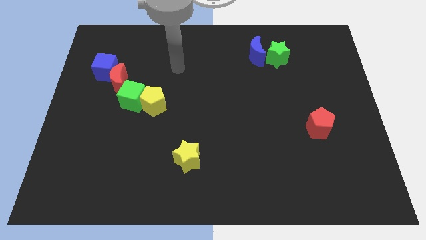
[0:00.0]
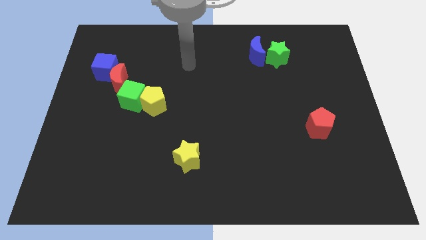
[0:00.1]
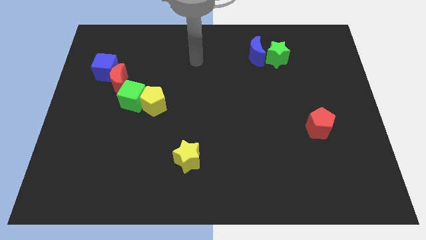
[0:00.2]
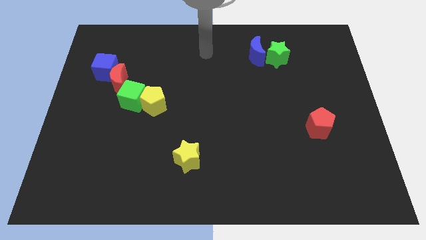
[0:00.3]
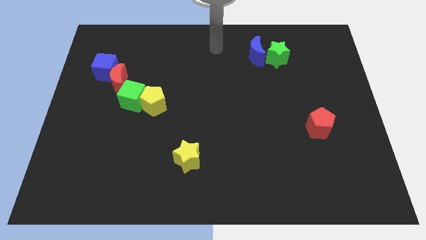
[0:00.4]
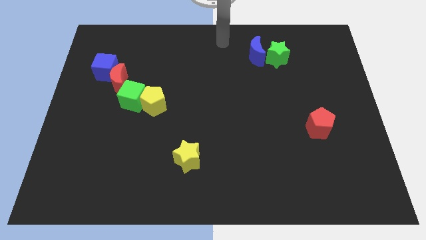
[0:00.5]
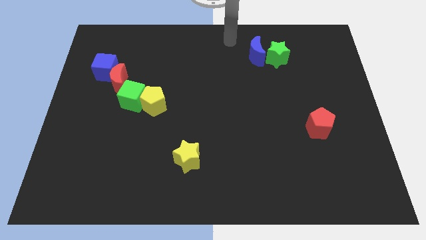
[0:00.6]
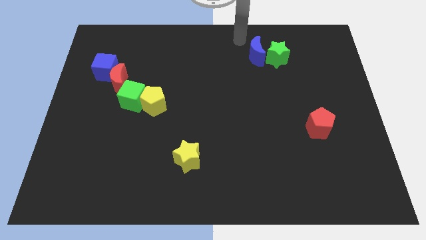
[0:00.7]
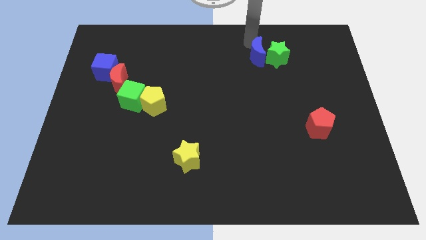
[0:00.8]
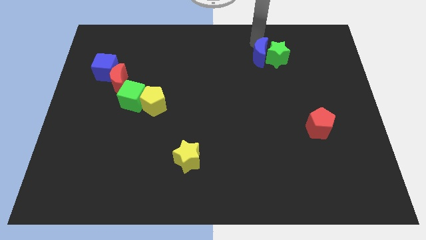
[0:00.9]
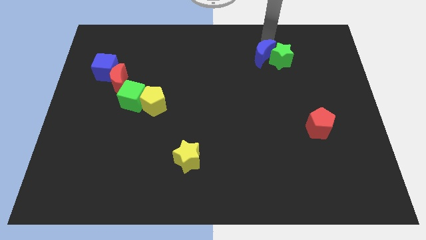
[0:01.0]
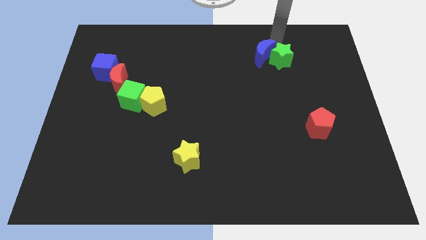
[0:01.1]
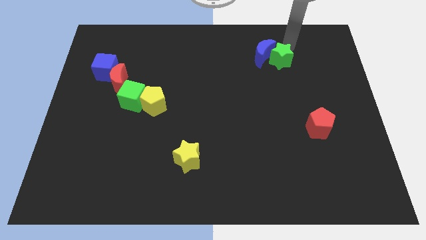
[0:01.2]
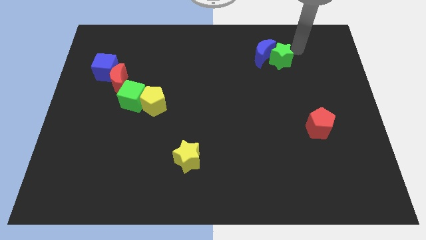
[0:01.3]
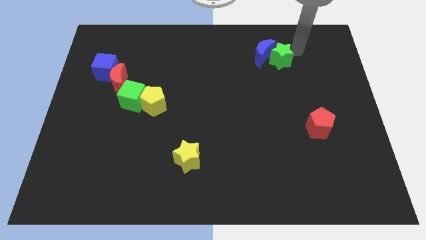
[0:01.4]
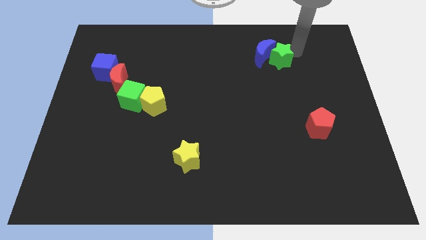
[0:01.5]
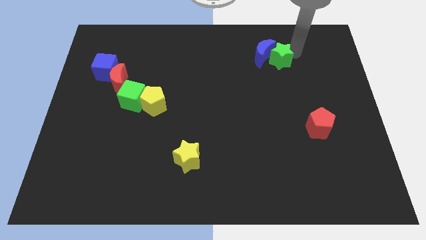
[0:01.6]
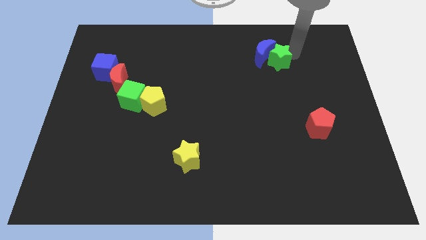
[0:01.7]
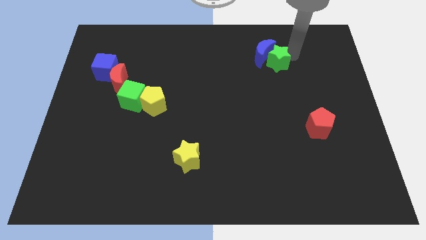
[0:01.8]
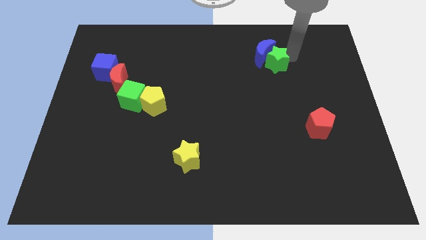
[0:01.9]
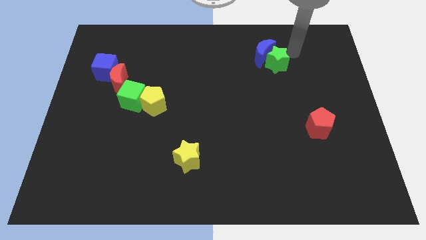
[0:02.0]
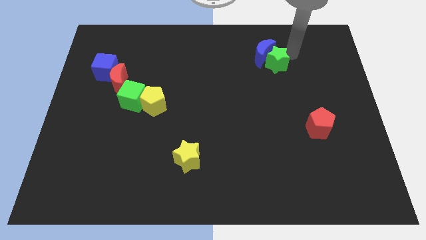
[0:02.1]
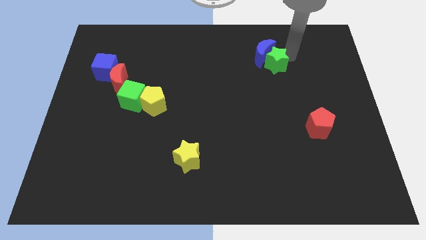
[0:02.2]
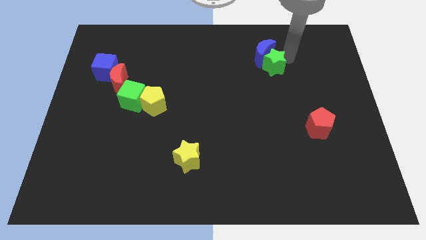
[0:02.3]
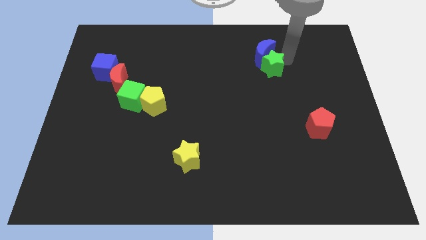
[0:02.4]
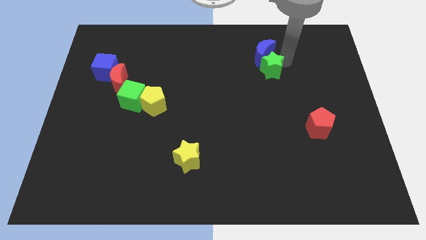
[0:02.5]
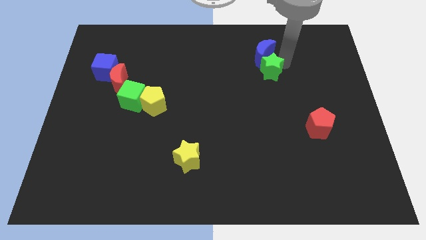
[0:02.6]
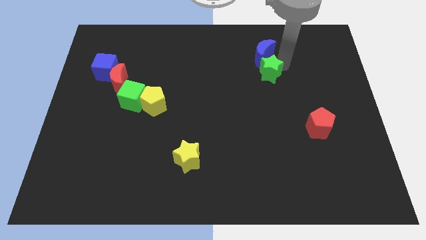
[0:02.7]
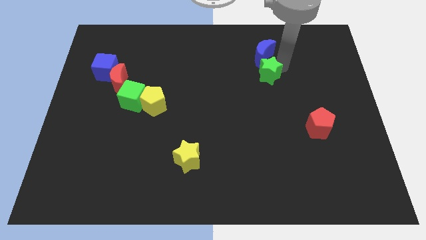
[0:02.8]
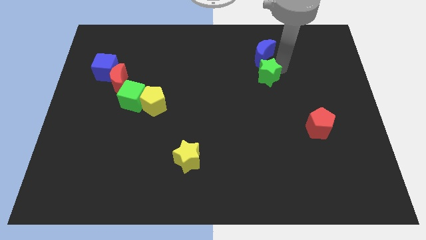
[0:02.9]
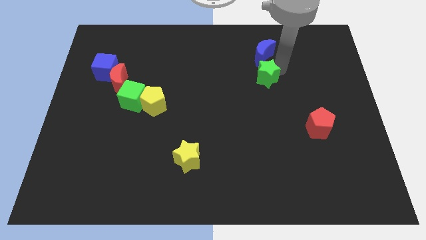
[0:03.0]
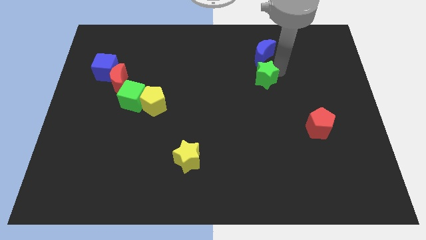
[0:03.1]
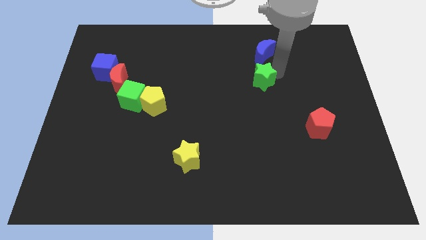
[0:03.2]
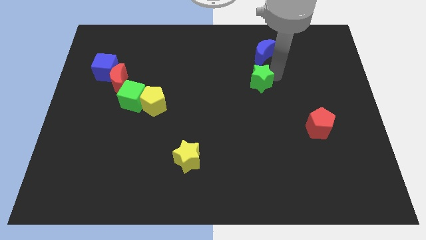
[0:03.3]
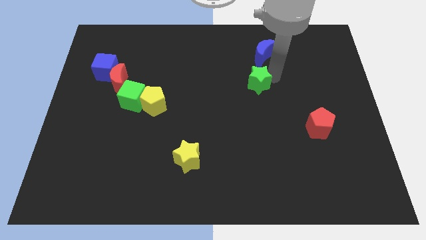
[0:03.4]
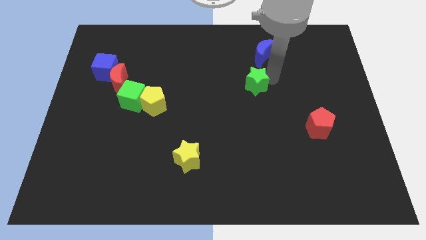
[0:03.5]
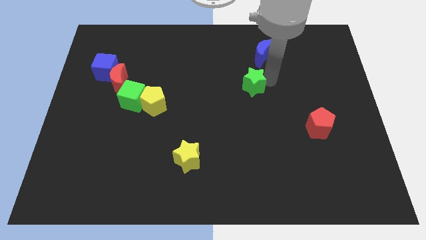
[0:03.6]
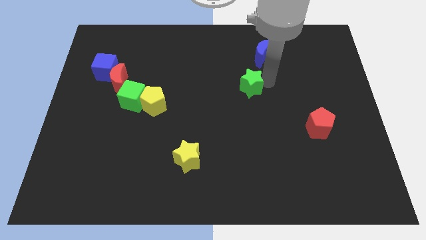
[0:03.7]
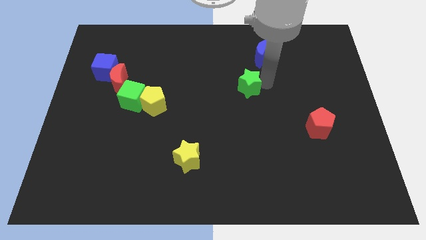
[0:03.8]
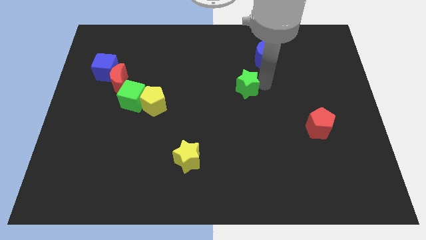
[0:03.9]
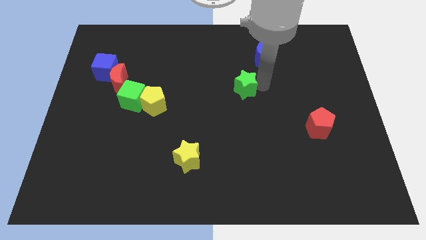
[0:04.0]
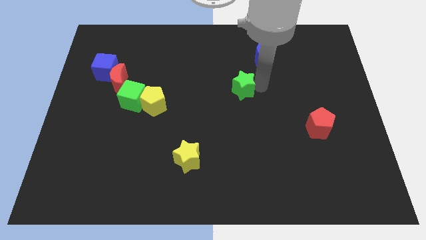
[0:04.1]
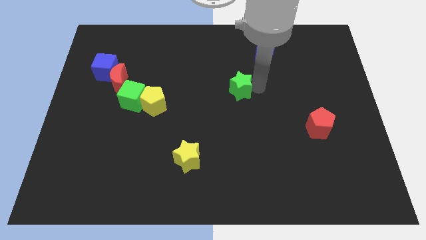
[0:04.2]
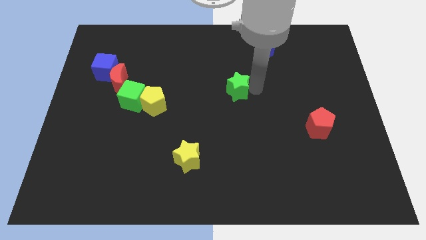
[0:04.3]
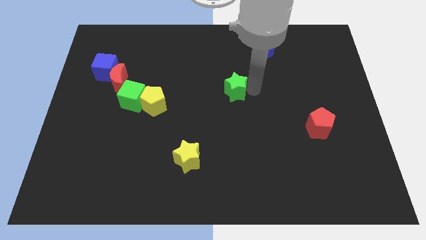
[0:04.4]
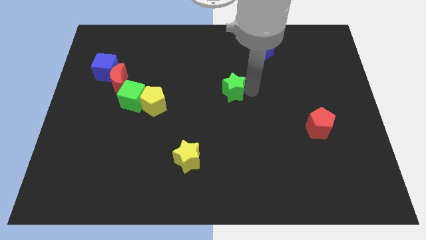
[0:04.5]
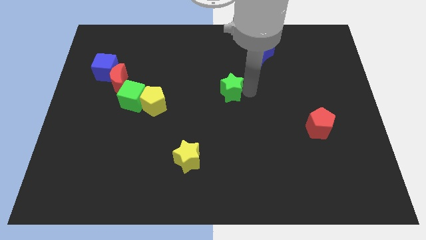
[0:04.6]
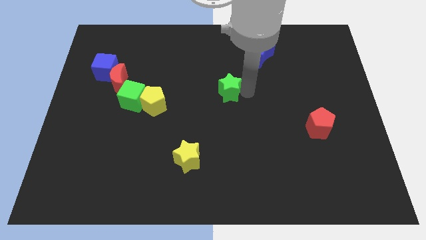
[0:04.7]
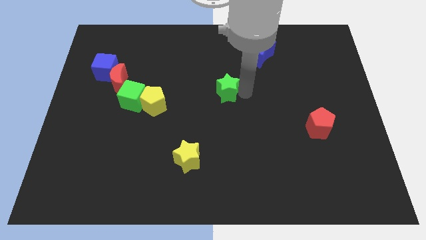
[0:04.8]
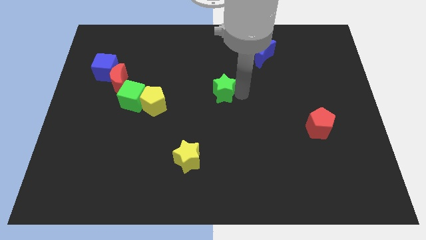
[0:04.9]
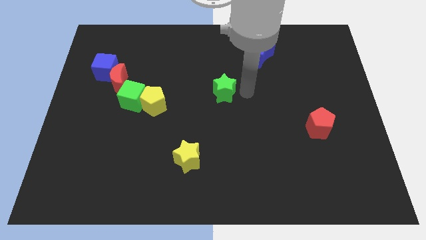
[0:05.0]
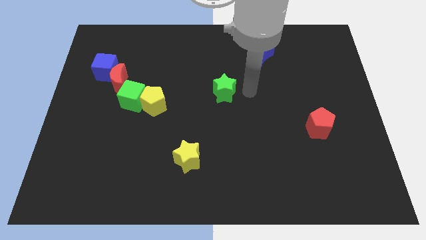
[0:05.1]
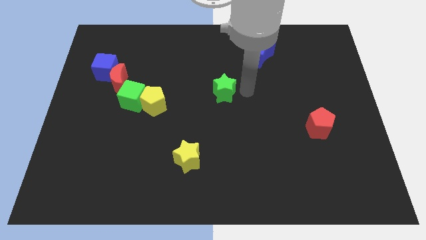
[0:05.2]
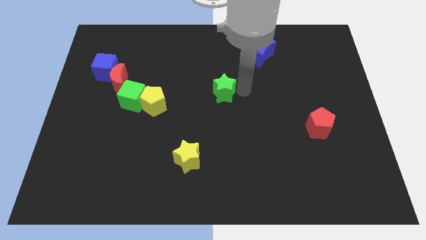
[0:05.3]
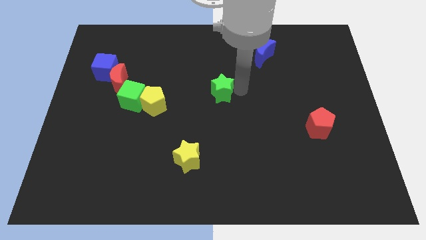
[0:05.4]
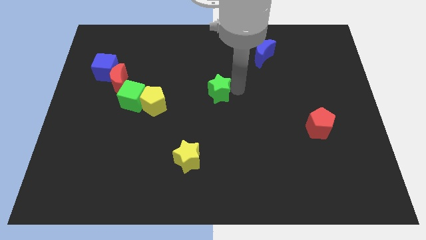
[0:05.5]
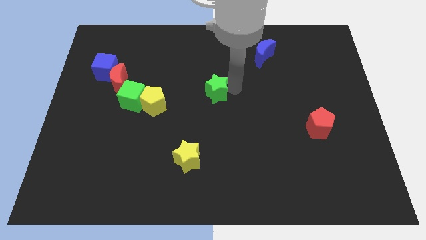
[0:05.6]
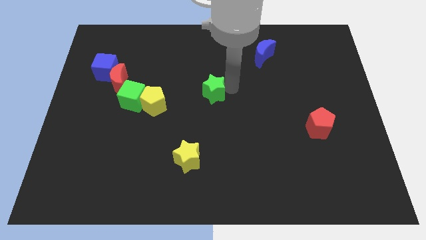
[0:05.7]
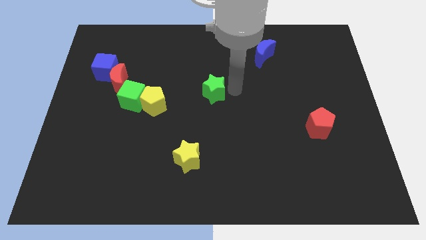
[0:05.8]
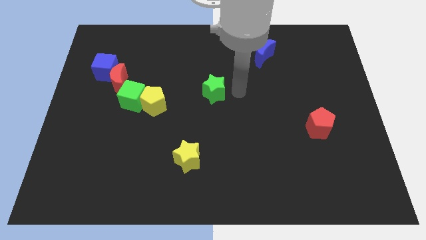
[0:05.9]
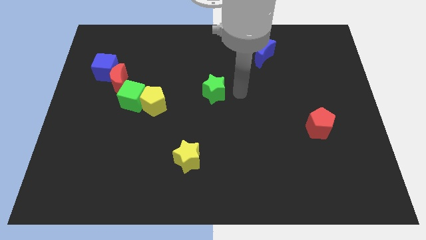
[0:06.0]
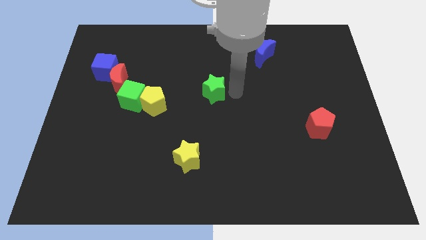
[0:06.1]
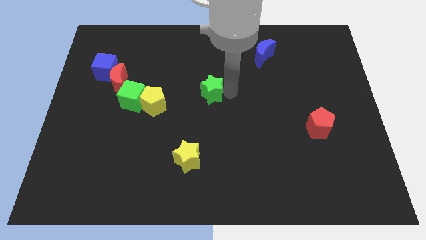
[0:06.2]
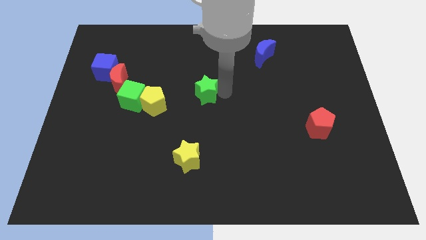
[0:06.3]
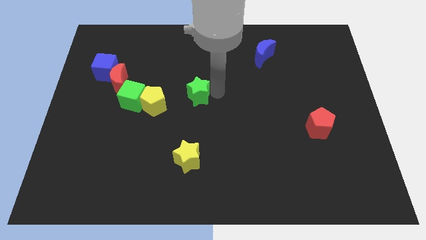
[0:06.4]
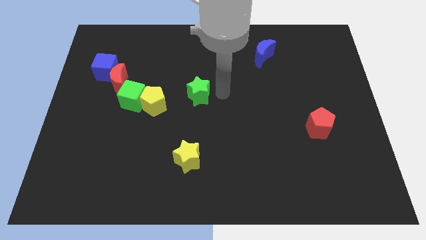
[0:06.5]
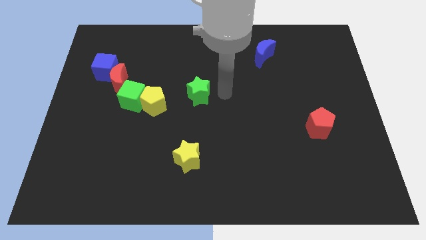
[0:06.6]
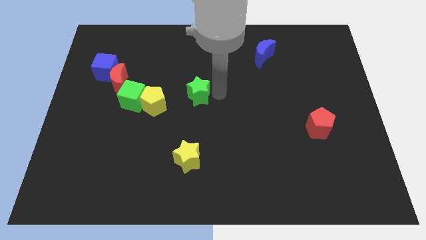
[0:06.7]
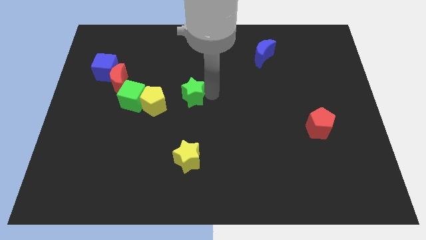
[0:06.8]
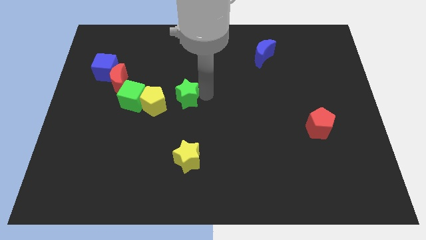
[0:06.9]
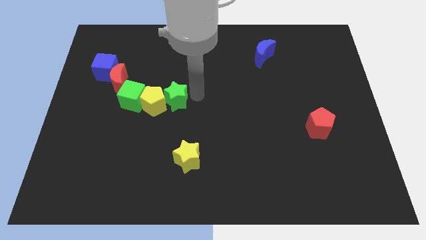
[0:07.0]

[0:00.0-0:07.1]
slide the green star next to the yellow pentagon
